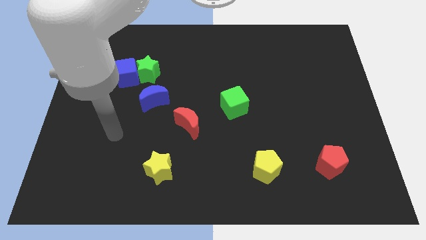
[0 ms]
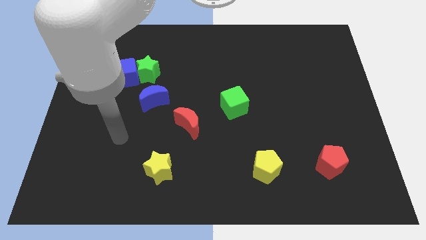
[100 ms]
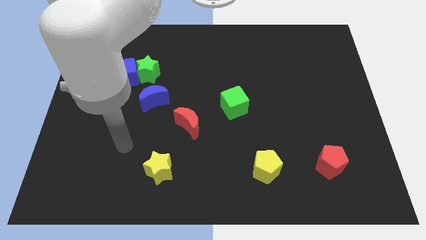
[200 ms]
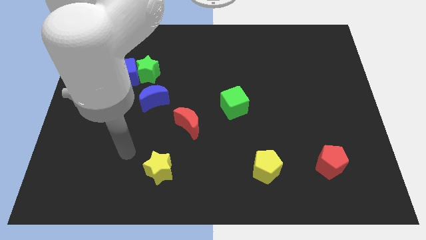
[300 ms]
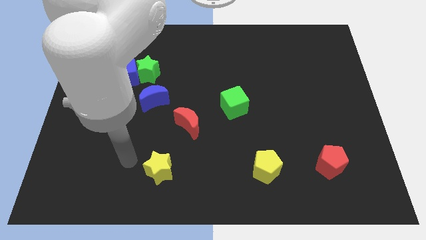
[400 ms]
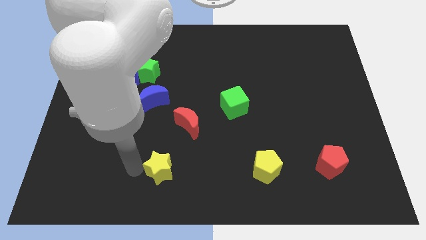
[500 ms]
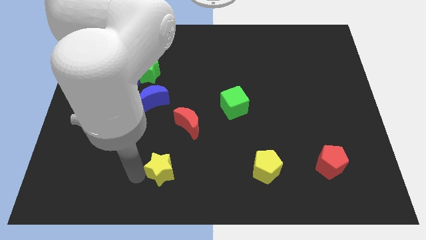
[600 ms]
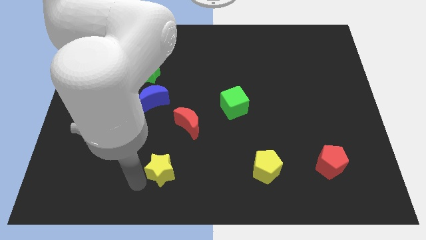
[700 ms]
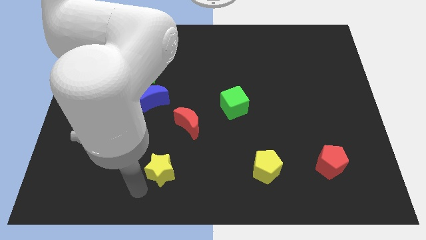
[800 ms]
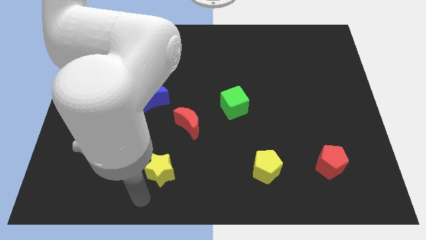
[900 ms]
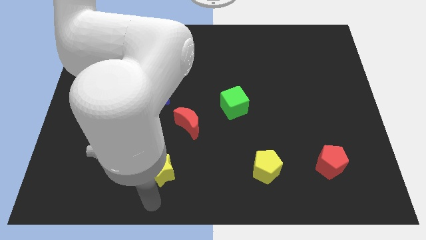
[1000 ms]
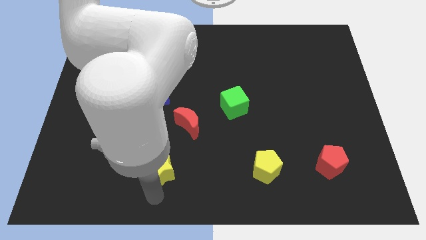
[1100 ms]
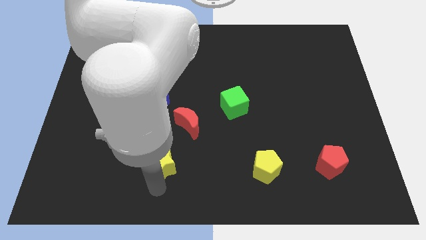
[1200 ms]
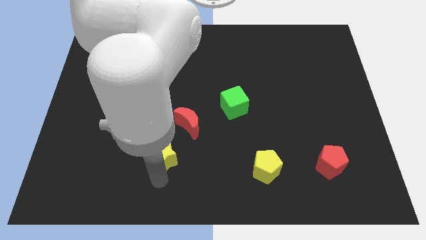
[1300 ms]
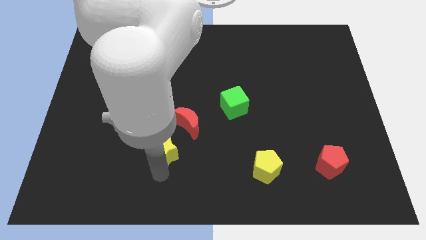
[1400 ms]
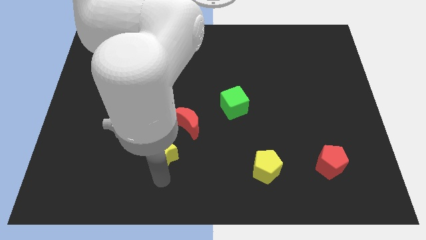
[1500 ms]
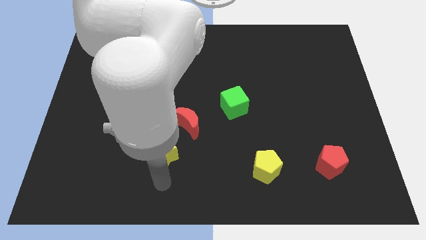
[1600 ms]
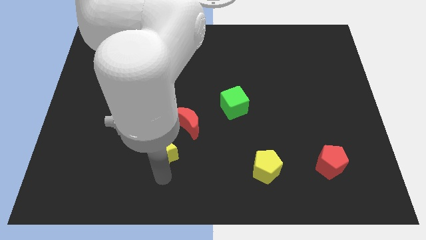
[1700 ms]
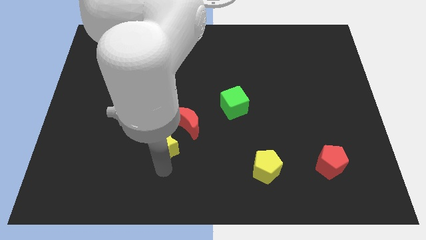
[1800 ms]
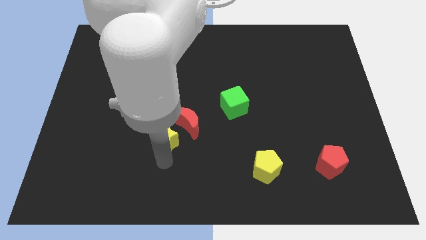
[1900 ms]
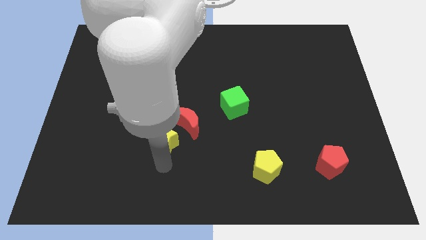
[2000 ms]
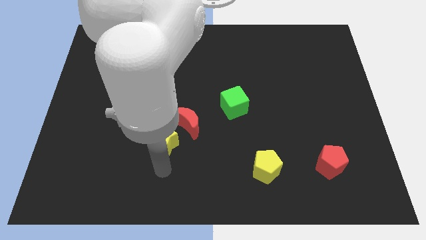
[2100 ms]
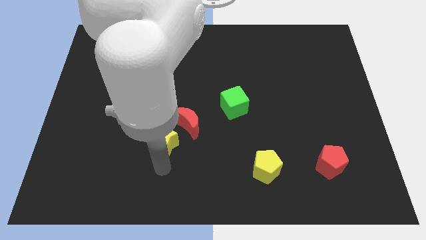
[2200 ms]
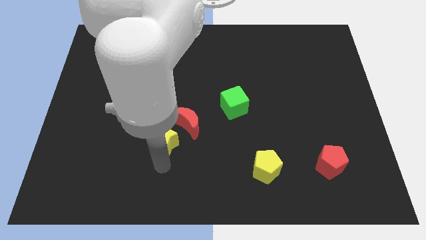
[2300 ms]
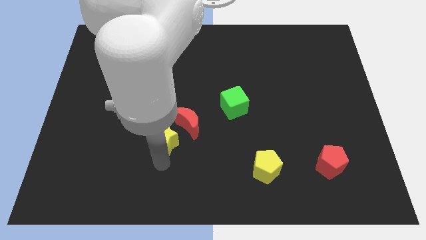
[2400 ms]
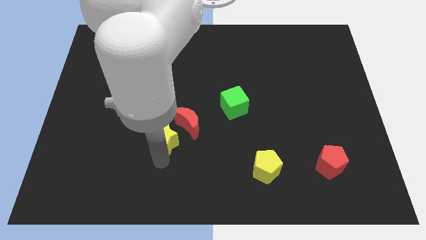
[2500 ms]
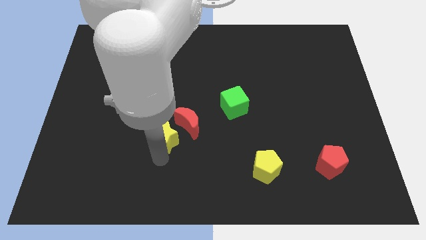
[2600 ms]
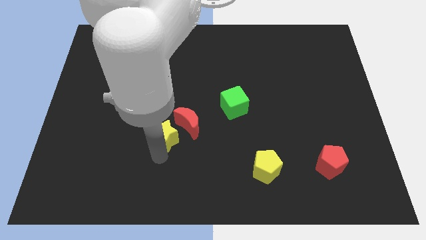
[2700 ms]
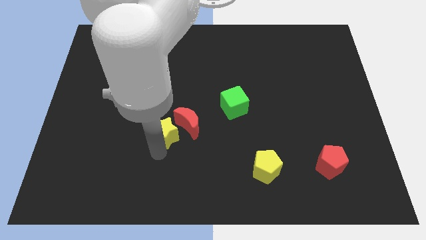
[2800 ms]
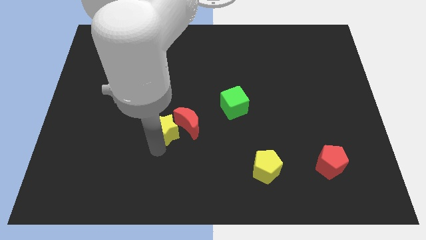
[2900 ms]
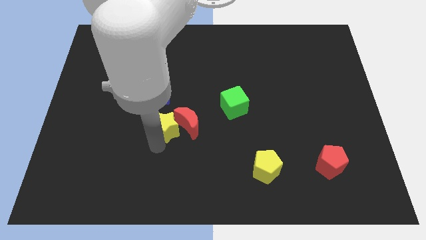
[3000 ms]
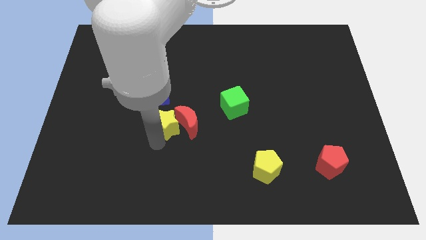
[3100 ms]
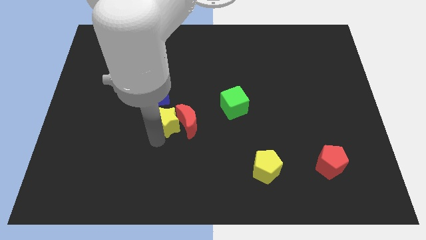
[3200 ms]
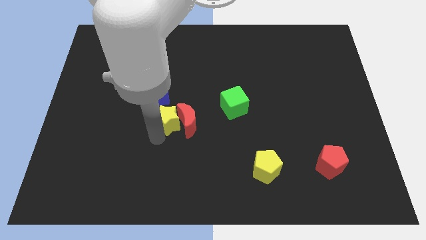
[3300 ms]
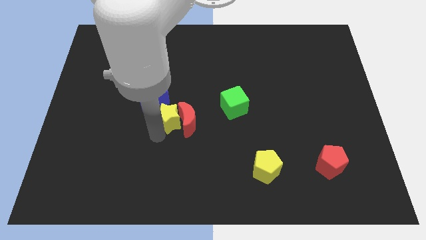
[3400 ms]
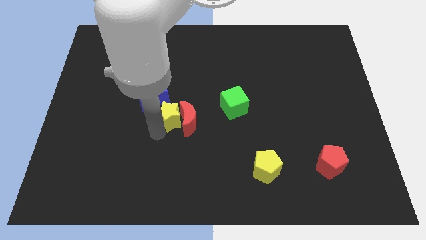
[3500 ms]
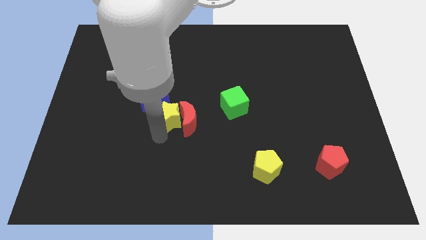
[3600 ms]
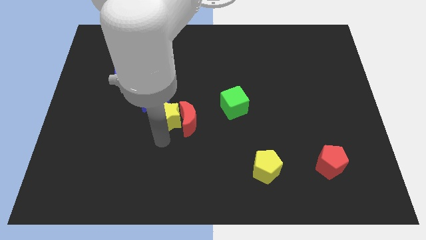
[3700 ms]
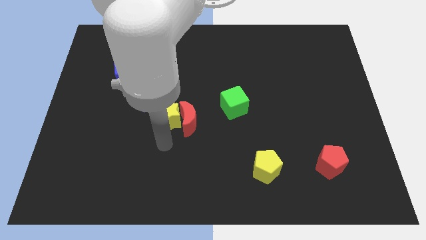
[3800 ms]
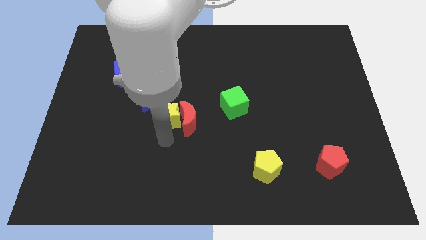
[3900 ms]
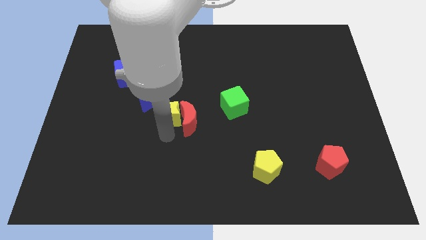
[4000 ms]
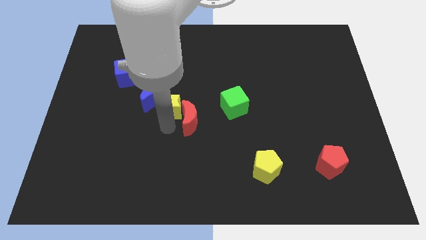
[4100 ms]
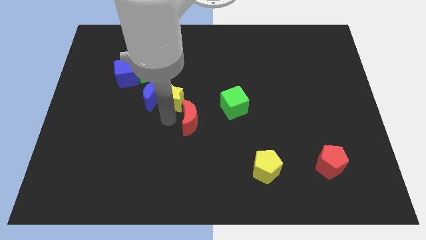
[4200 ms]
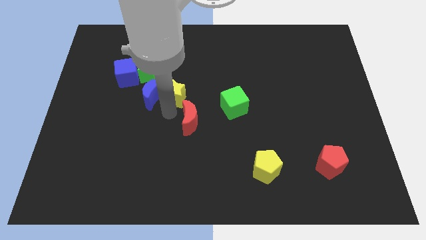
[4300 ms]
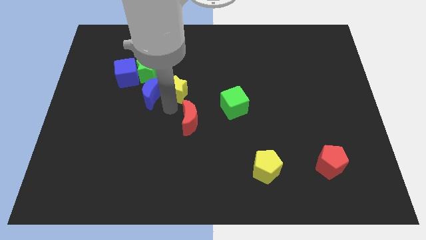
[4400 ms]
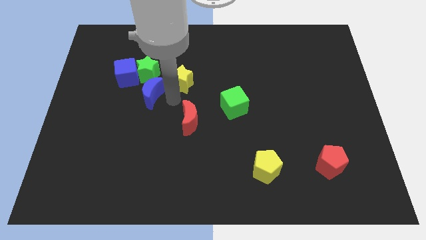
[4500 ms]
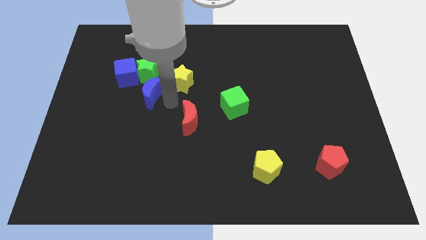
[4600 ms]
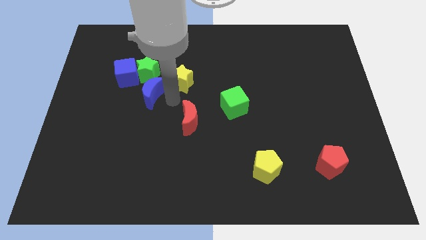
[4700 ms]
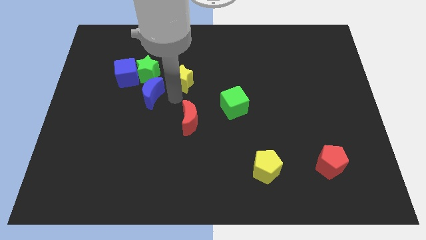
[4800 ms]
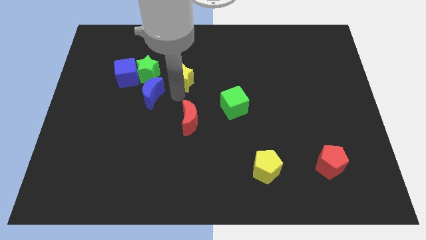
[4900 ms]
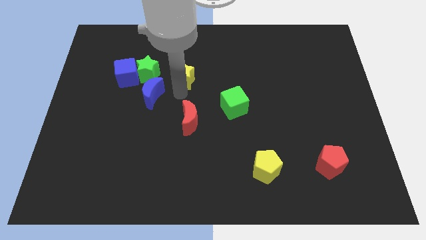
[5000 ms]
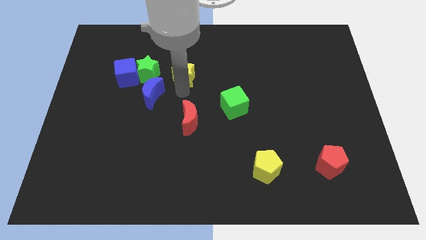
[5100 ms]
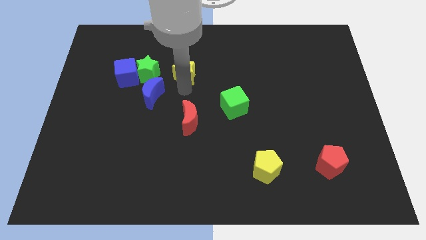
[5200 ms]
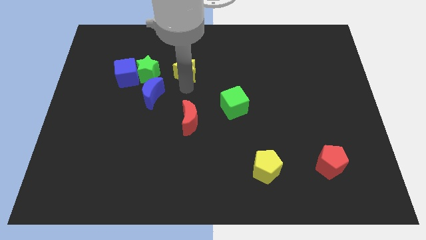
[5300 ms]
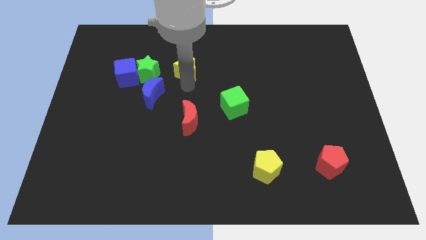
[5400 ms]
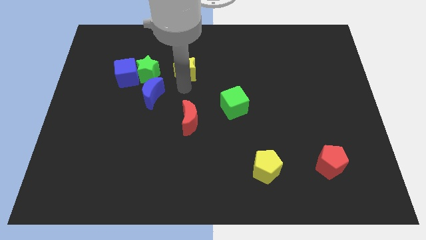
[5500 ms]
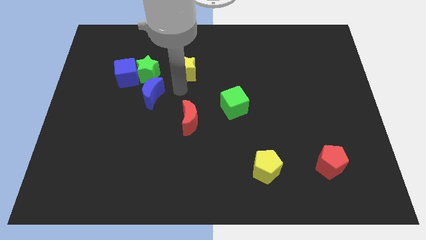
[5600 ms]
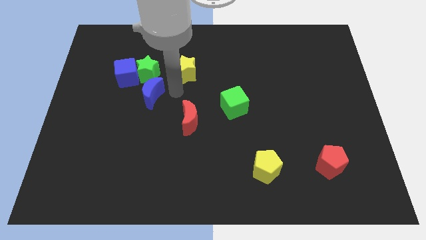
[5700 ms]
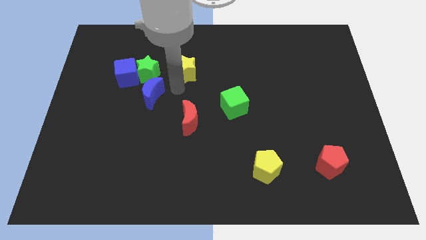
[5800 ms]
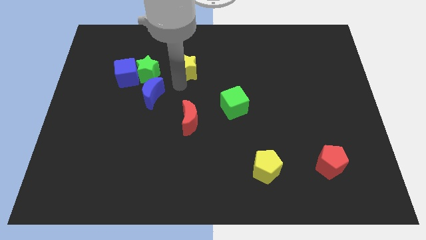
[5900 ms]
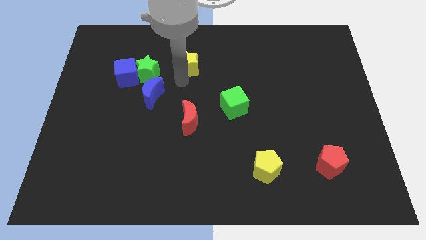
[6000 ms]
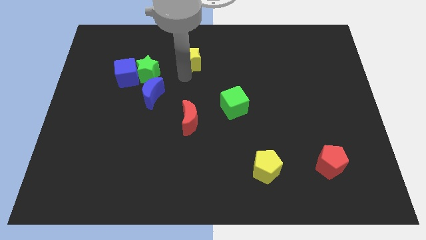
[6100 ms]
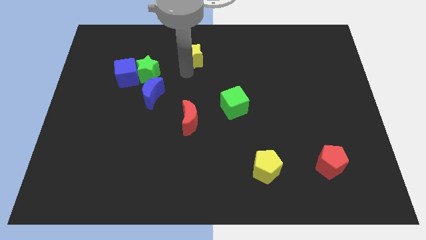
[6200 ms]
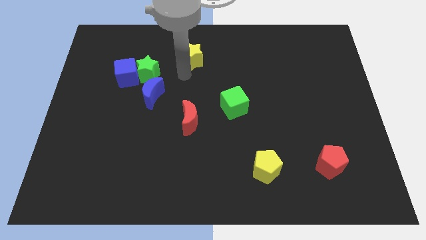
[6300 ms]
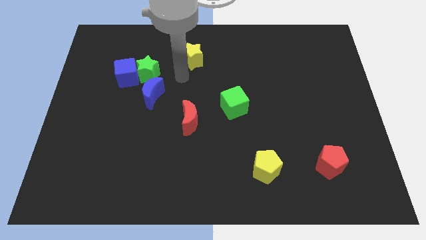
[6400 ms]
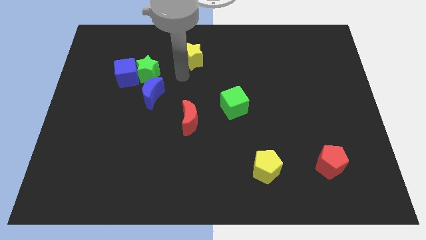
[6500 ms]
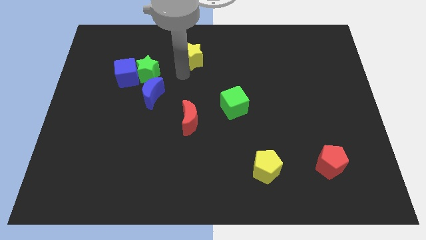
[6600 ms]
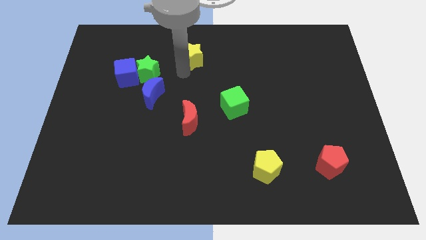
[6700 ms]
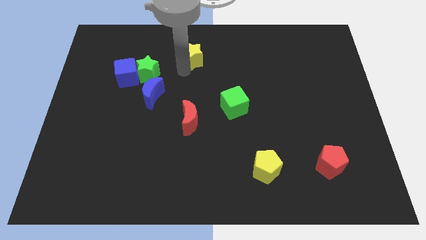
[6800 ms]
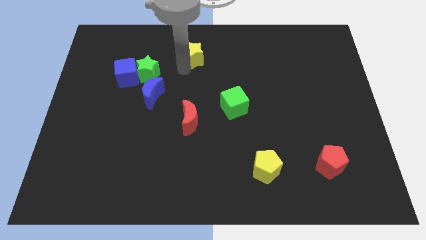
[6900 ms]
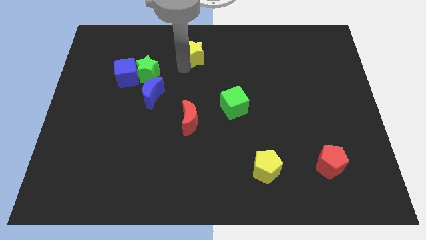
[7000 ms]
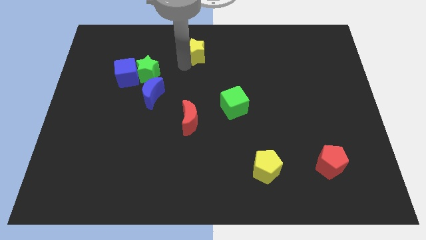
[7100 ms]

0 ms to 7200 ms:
put the yellow star to the top
